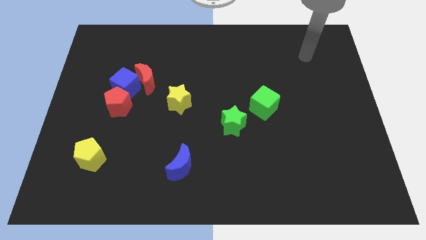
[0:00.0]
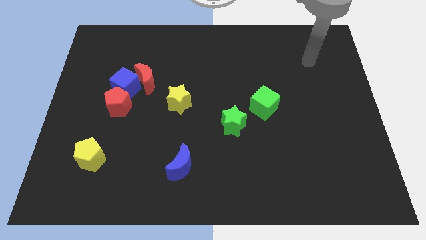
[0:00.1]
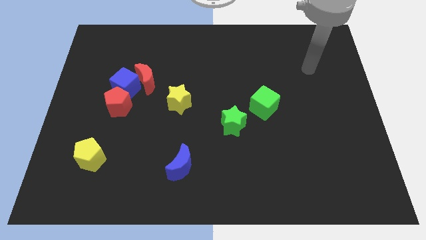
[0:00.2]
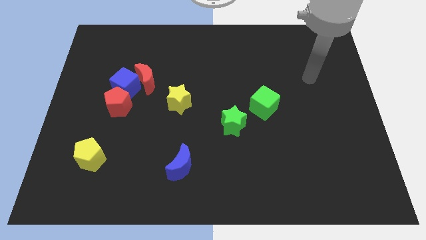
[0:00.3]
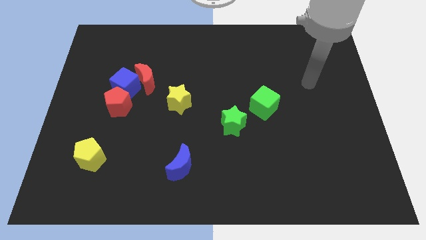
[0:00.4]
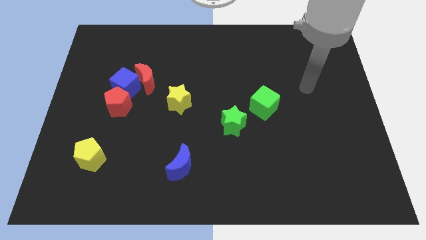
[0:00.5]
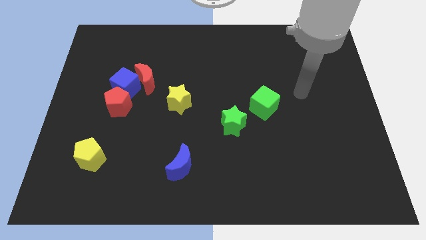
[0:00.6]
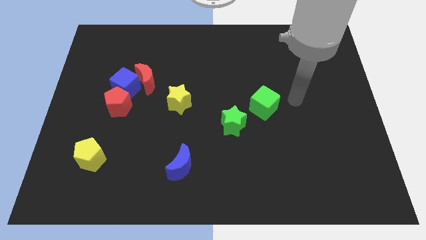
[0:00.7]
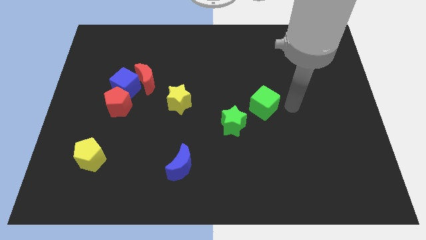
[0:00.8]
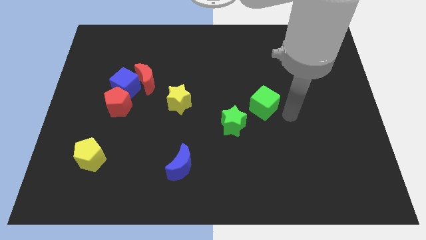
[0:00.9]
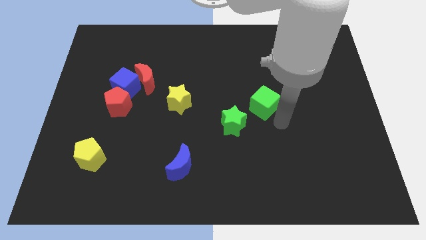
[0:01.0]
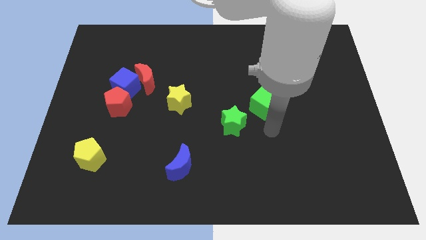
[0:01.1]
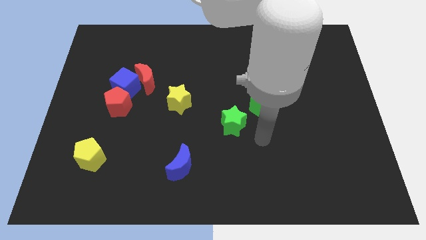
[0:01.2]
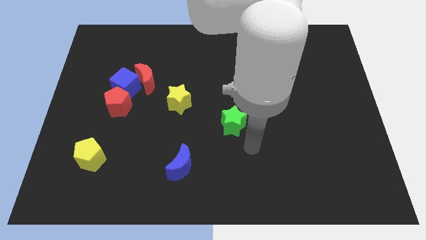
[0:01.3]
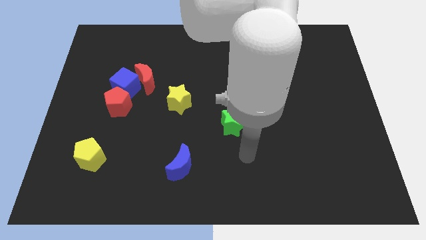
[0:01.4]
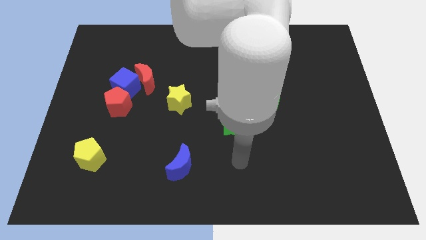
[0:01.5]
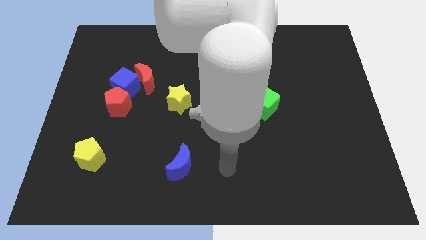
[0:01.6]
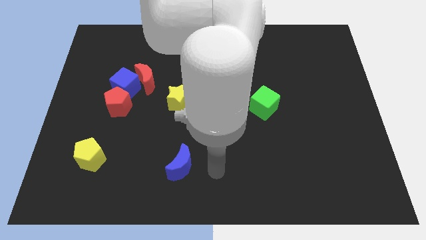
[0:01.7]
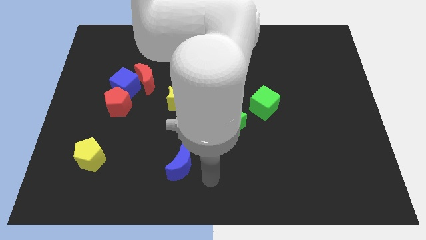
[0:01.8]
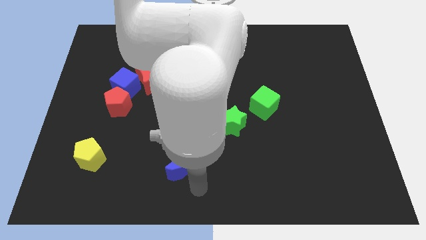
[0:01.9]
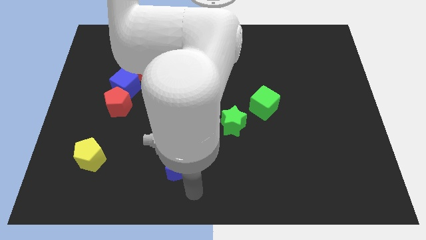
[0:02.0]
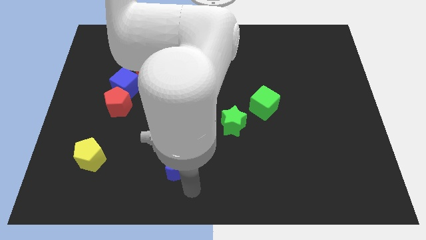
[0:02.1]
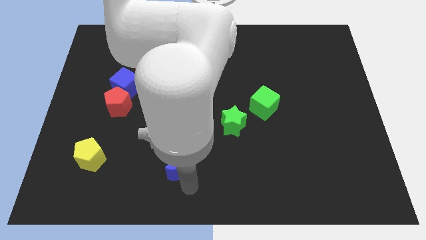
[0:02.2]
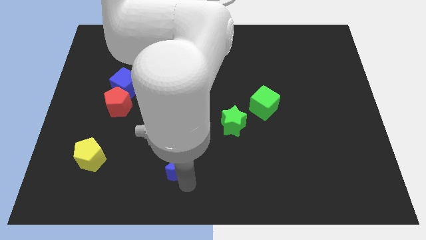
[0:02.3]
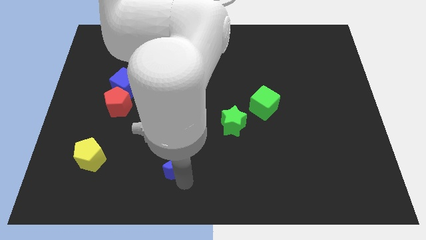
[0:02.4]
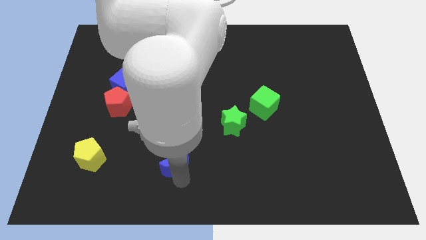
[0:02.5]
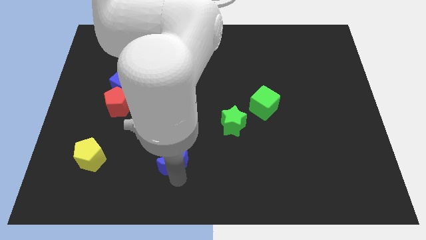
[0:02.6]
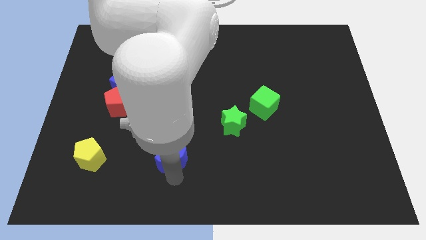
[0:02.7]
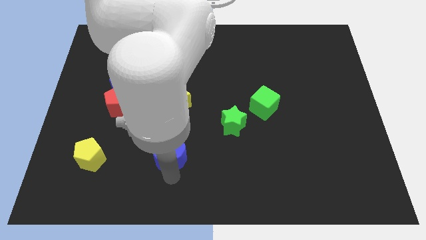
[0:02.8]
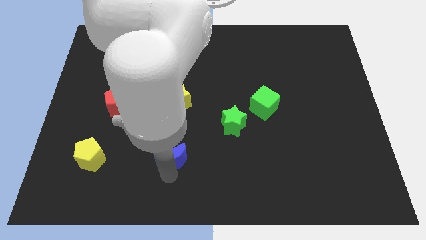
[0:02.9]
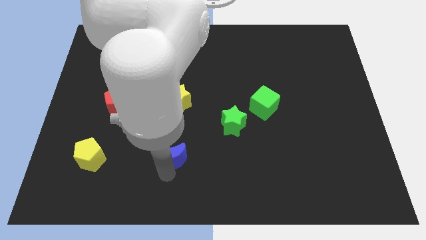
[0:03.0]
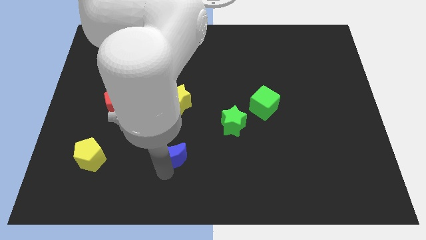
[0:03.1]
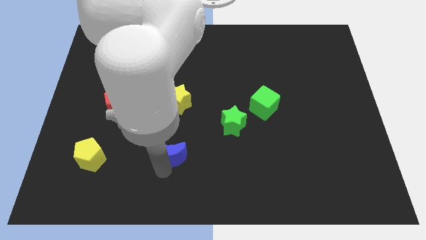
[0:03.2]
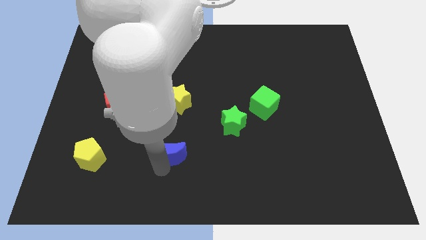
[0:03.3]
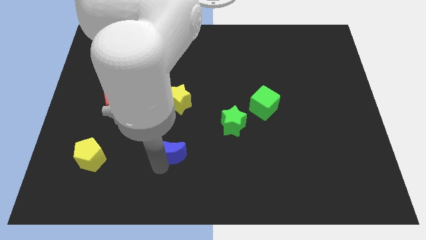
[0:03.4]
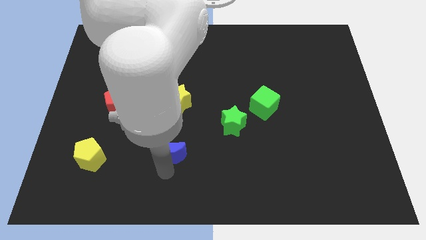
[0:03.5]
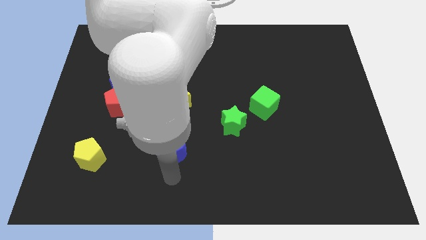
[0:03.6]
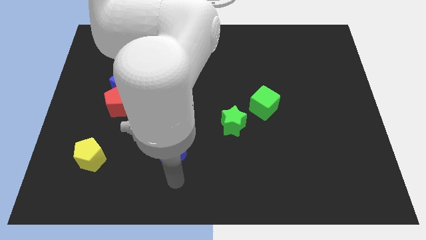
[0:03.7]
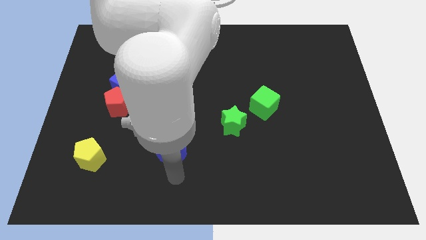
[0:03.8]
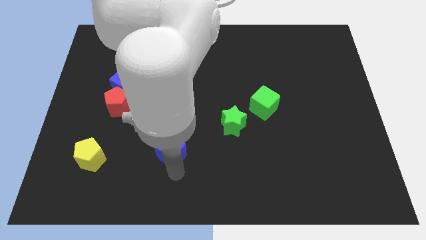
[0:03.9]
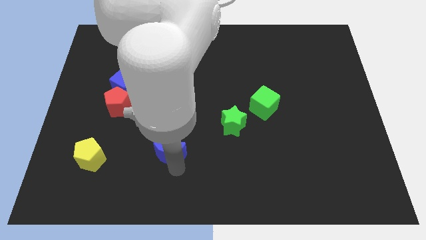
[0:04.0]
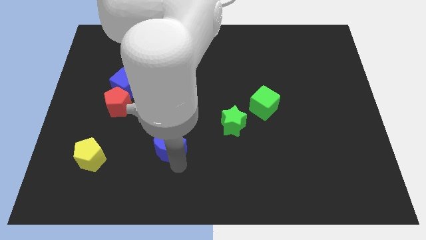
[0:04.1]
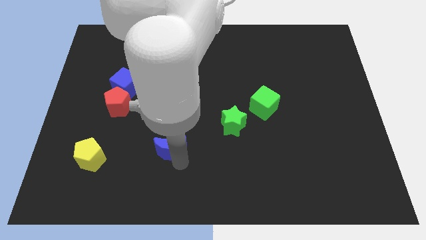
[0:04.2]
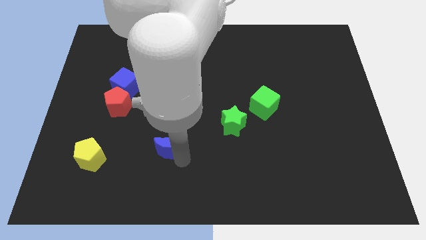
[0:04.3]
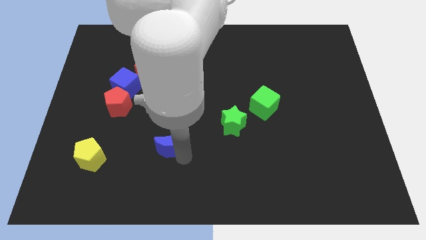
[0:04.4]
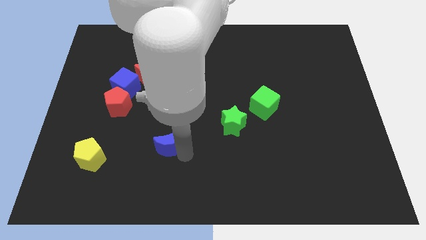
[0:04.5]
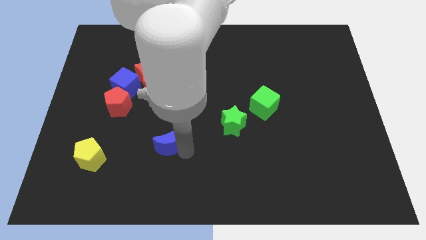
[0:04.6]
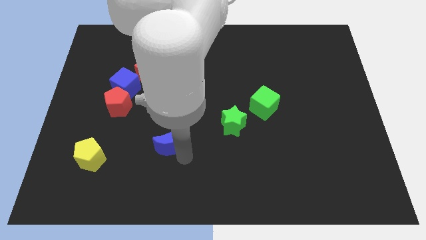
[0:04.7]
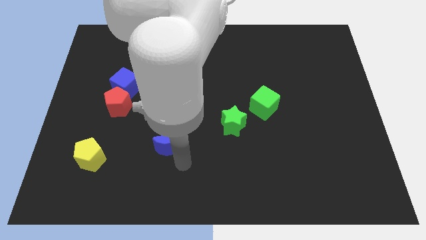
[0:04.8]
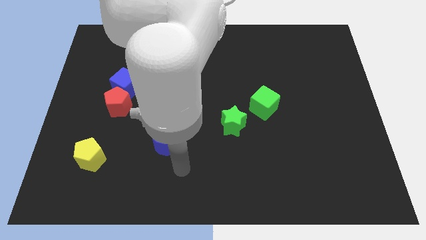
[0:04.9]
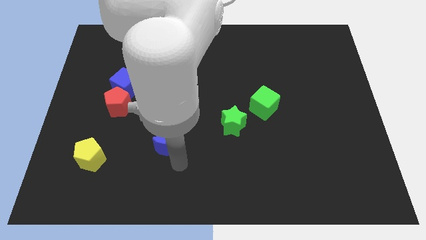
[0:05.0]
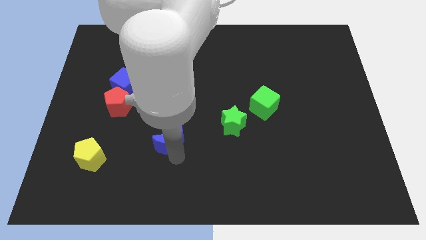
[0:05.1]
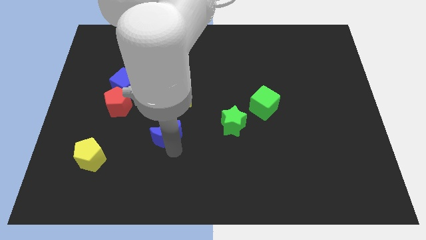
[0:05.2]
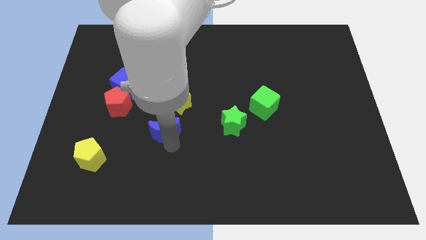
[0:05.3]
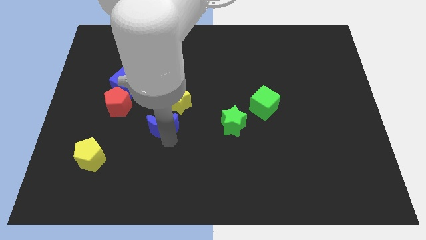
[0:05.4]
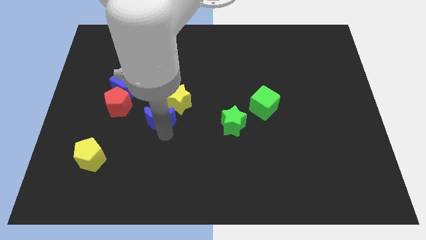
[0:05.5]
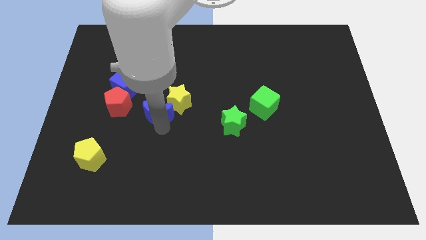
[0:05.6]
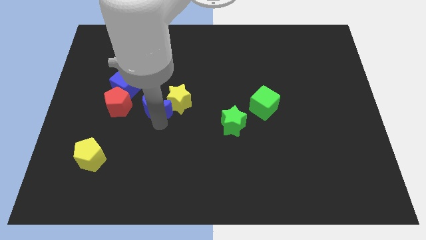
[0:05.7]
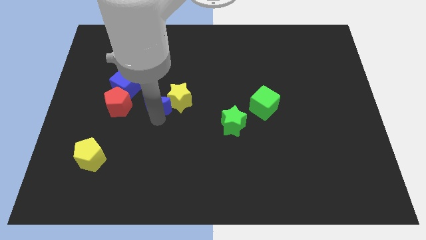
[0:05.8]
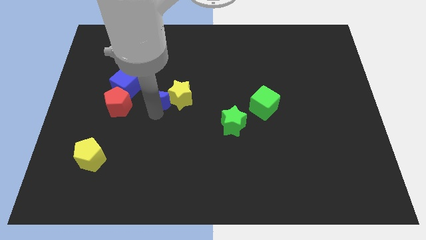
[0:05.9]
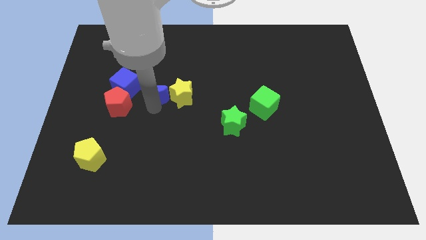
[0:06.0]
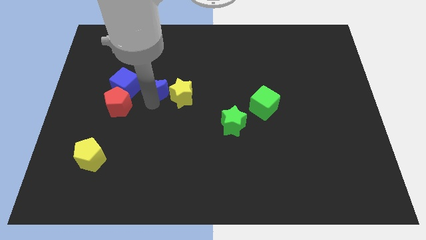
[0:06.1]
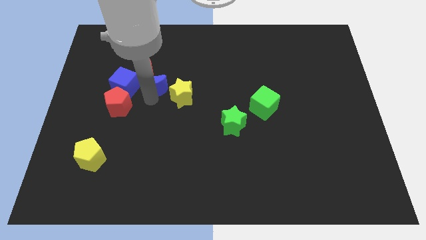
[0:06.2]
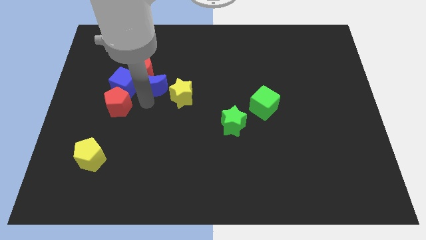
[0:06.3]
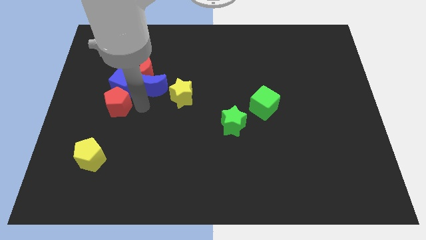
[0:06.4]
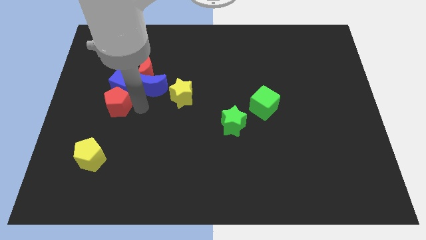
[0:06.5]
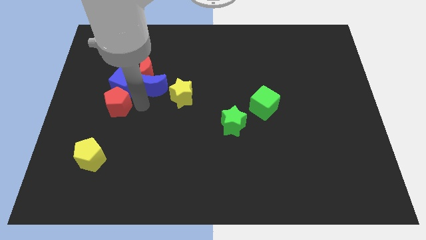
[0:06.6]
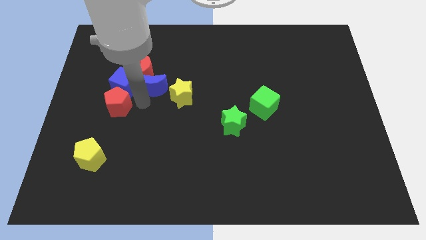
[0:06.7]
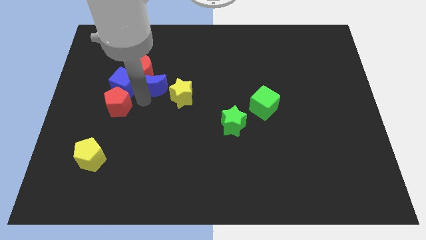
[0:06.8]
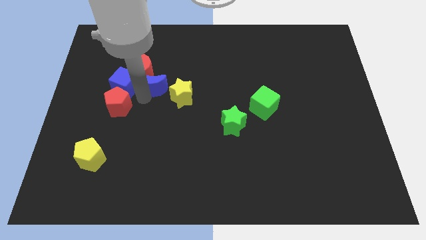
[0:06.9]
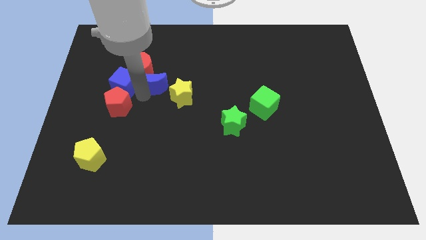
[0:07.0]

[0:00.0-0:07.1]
put the blue moon diagonally up and to the right of the blue cube
